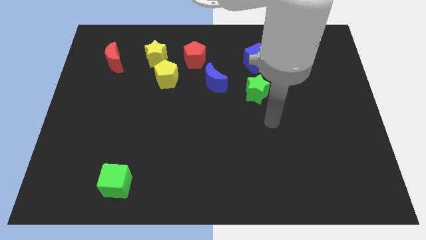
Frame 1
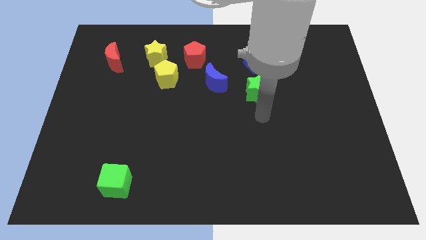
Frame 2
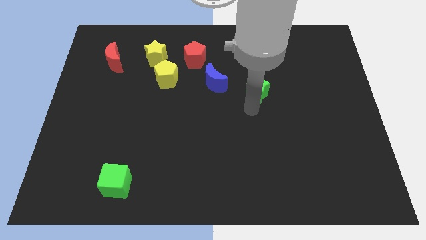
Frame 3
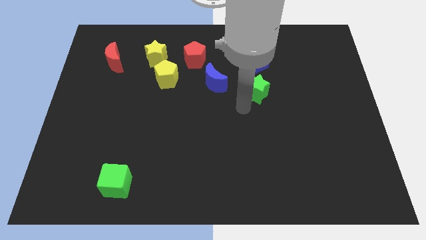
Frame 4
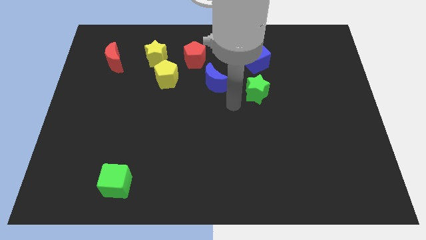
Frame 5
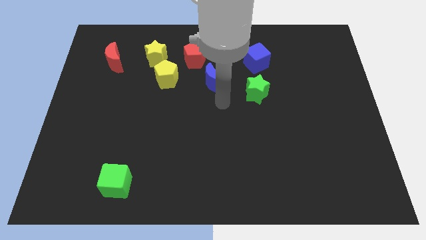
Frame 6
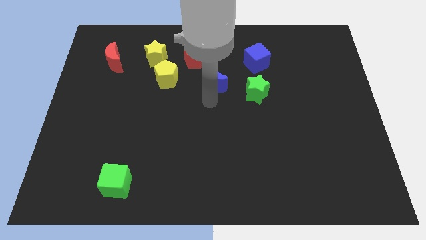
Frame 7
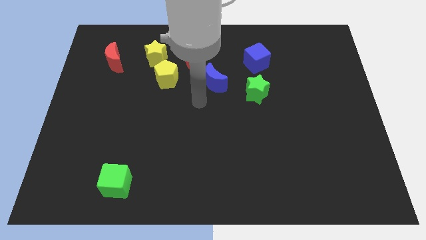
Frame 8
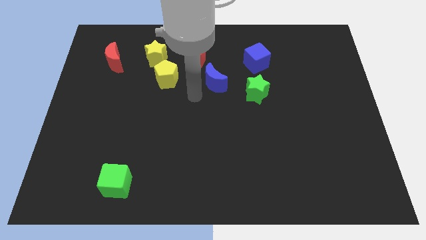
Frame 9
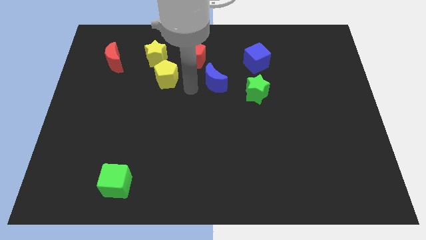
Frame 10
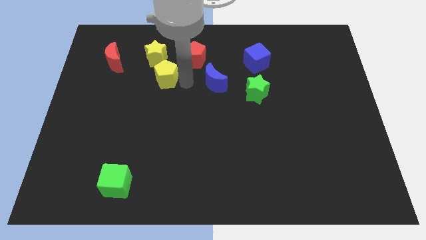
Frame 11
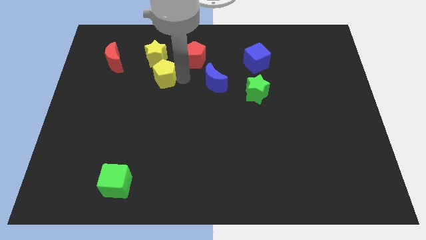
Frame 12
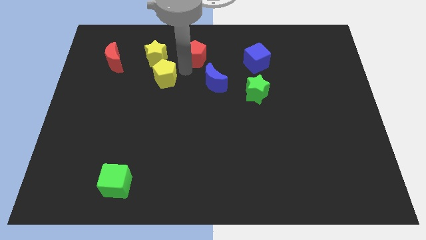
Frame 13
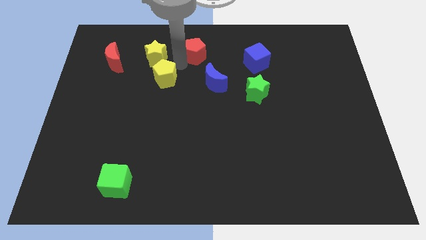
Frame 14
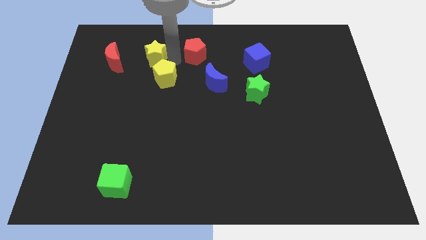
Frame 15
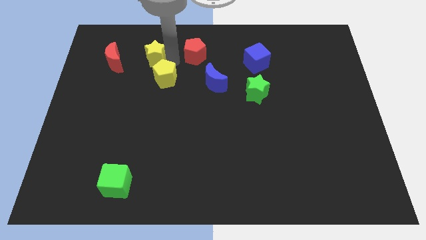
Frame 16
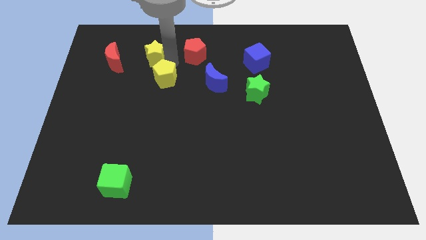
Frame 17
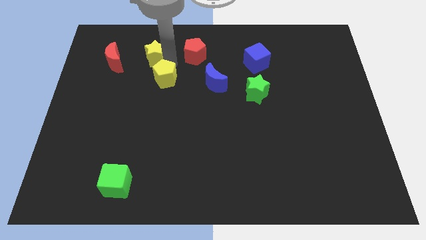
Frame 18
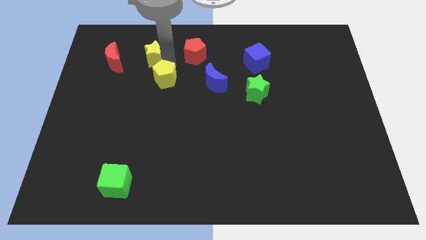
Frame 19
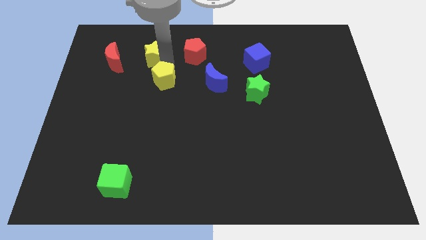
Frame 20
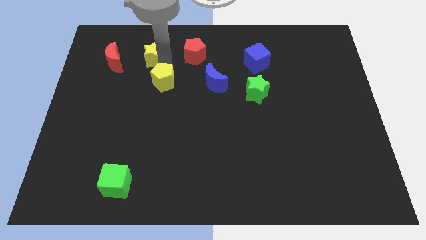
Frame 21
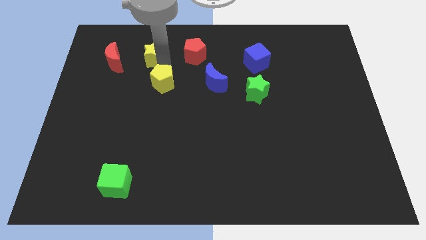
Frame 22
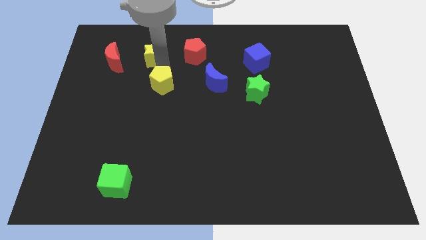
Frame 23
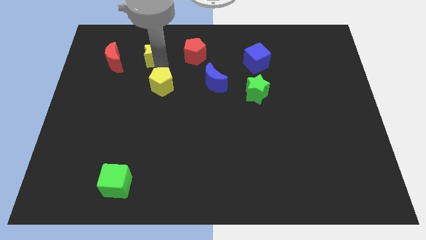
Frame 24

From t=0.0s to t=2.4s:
move the yellow pentagon away from the yellow star and red pentagon

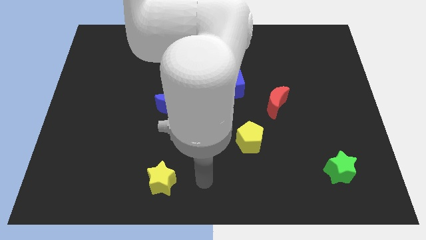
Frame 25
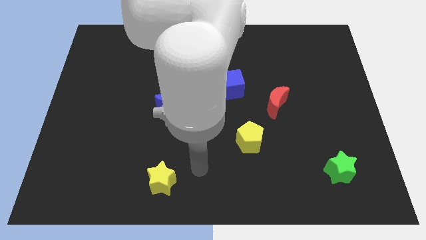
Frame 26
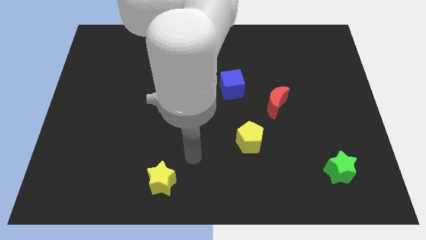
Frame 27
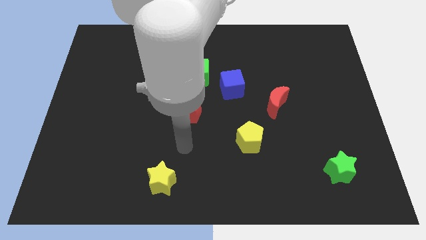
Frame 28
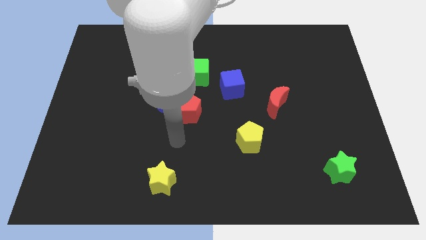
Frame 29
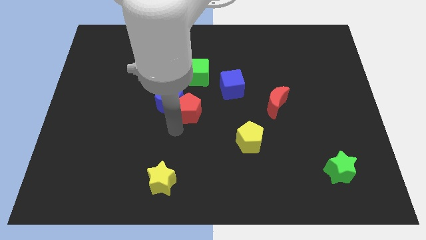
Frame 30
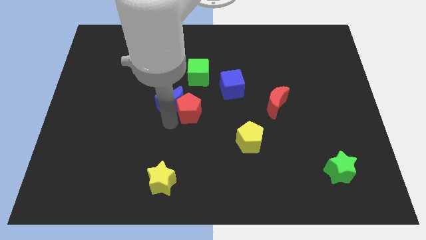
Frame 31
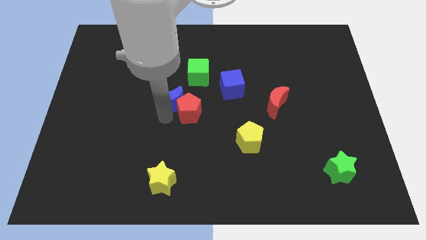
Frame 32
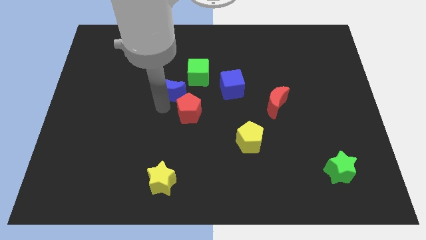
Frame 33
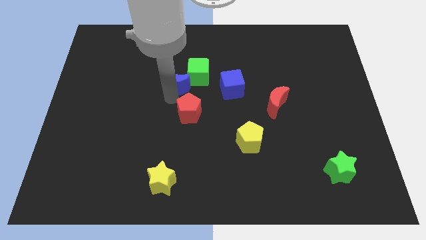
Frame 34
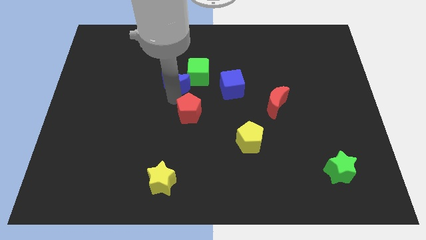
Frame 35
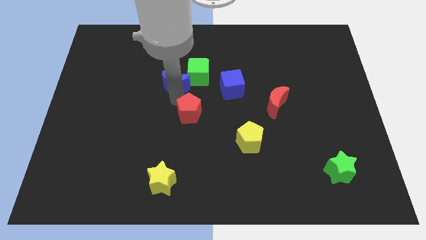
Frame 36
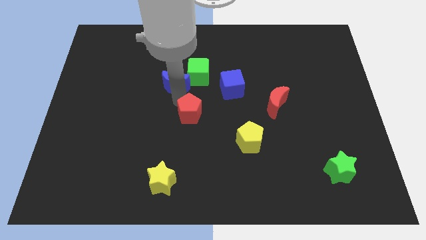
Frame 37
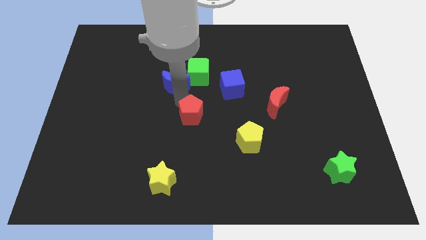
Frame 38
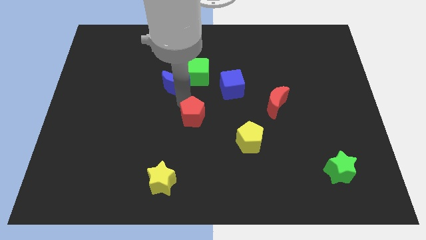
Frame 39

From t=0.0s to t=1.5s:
pull the red pentagon apart from the blue moon

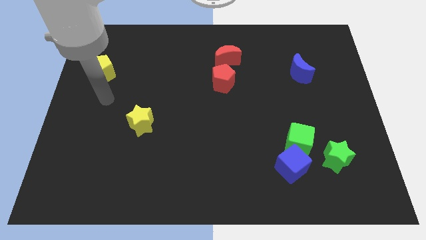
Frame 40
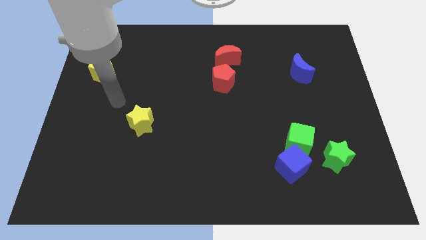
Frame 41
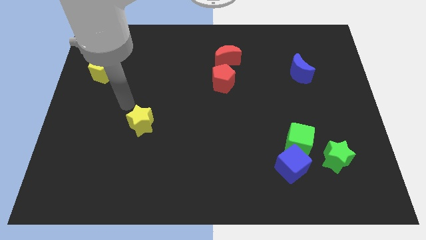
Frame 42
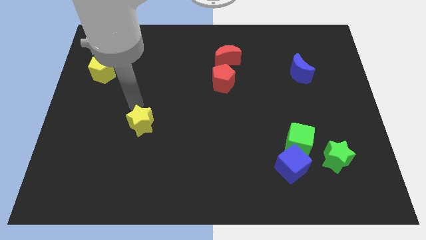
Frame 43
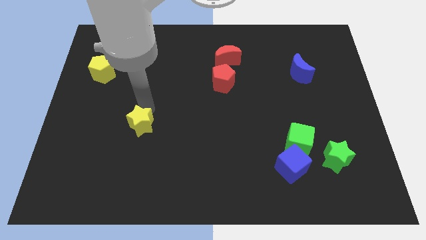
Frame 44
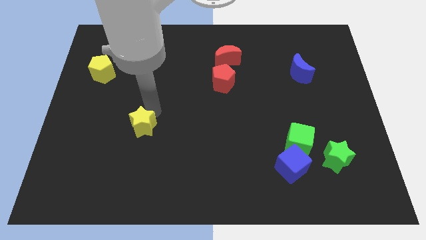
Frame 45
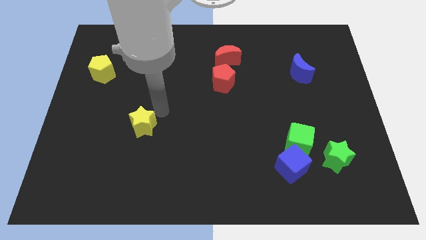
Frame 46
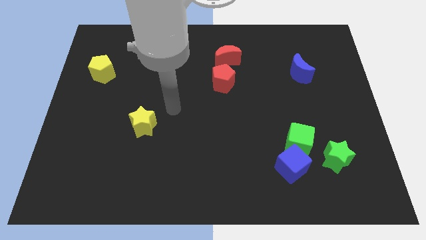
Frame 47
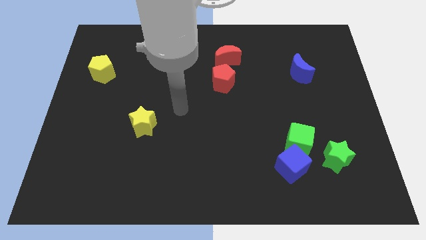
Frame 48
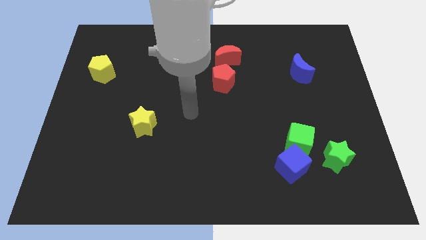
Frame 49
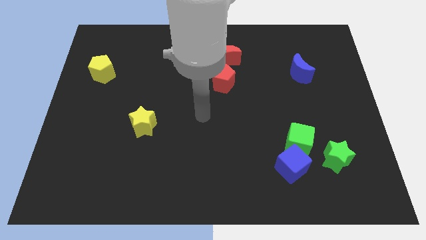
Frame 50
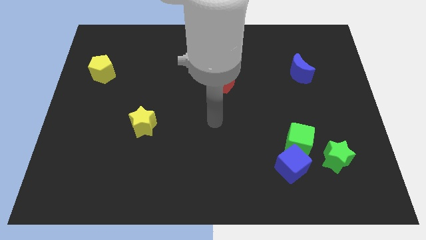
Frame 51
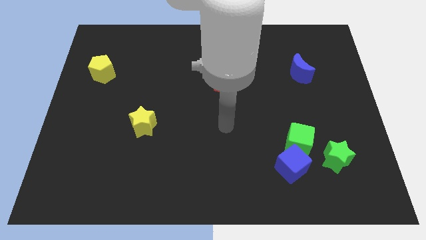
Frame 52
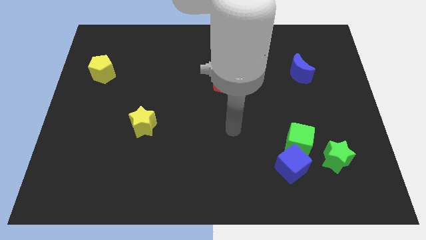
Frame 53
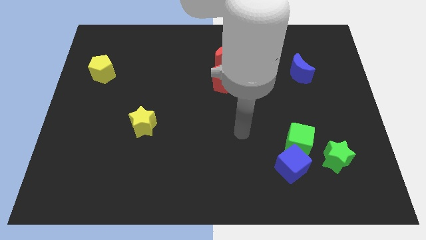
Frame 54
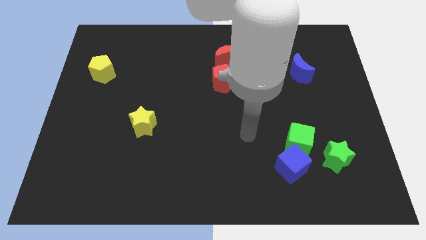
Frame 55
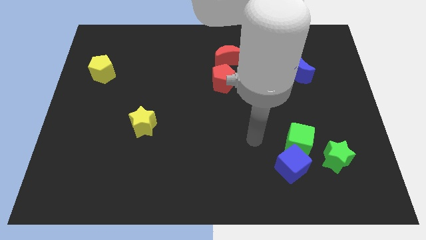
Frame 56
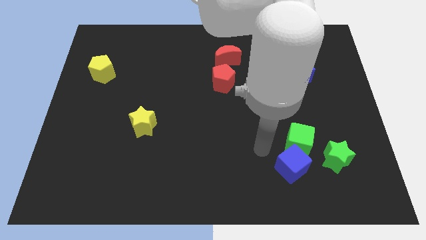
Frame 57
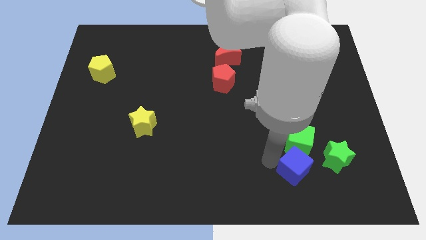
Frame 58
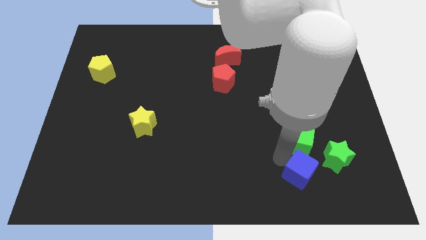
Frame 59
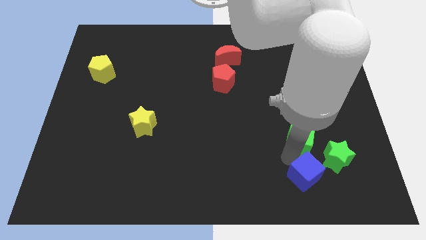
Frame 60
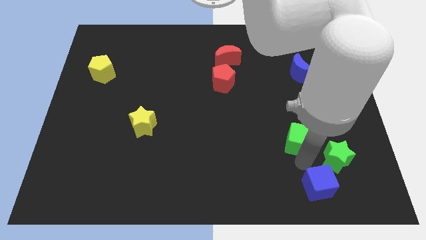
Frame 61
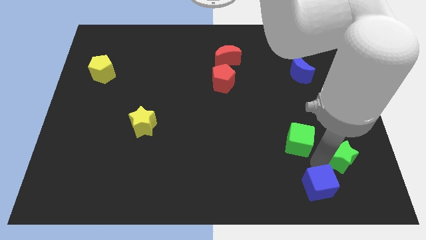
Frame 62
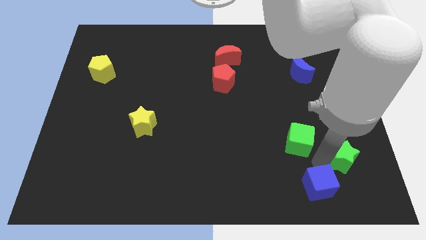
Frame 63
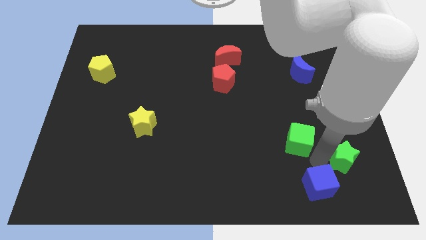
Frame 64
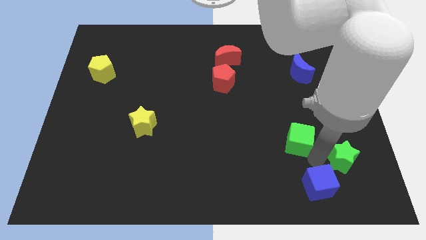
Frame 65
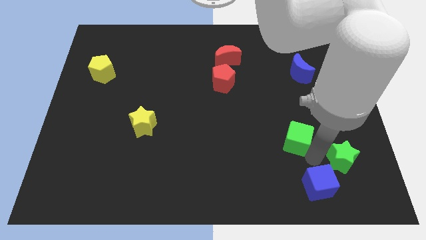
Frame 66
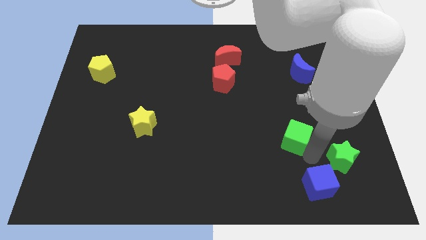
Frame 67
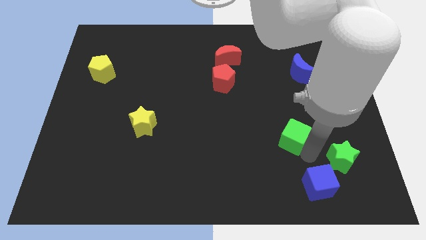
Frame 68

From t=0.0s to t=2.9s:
pull the green cube apart from the blue cube and green star

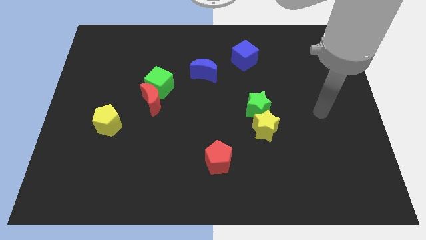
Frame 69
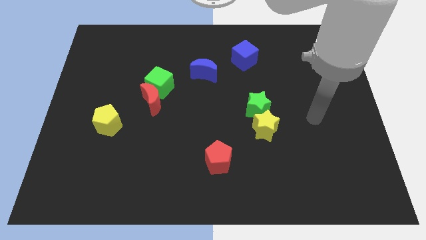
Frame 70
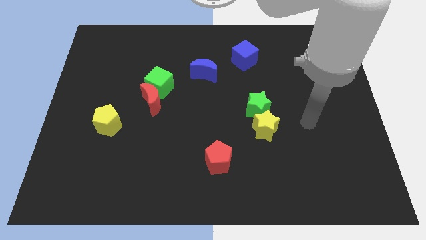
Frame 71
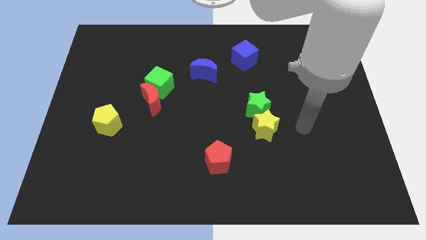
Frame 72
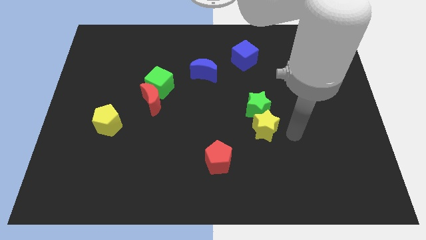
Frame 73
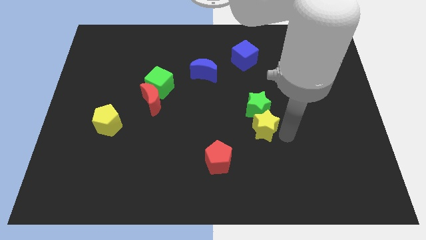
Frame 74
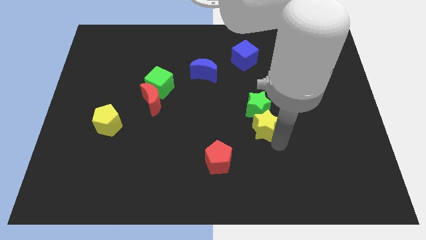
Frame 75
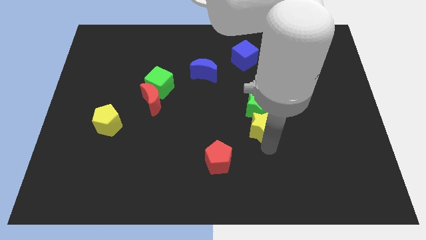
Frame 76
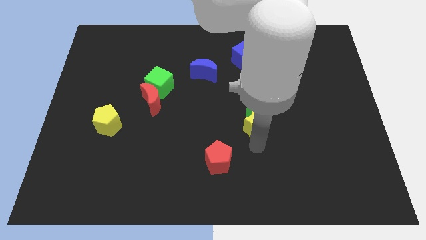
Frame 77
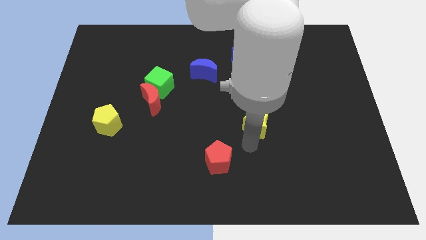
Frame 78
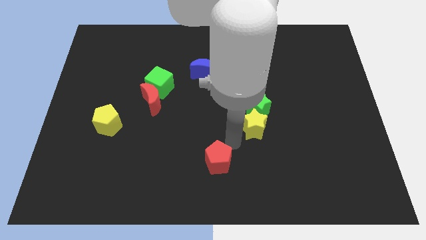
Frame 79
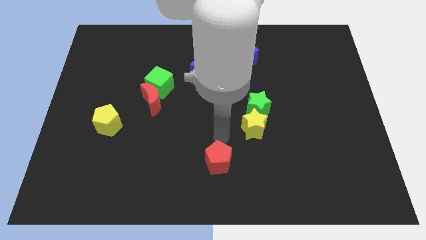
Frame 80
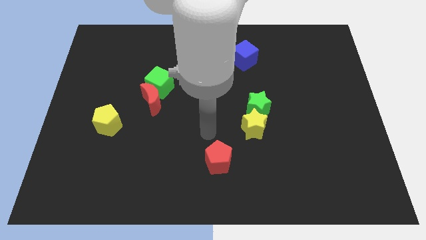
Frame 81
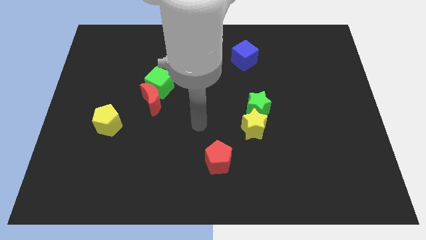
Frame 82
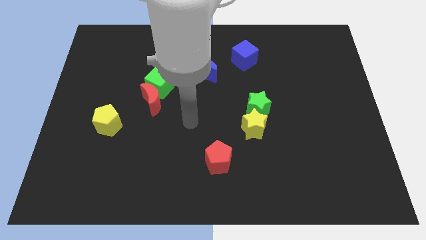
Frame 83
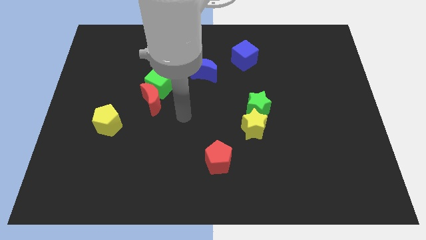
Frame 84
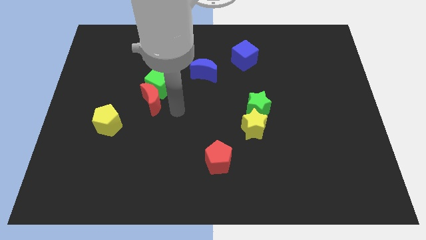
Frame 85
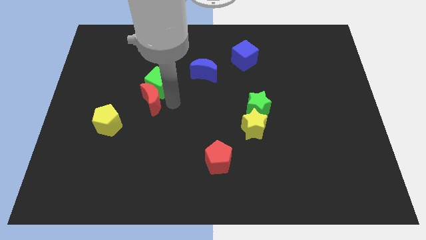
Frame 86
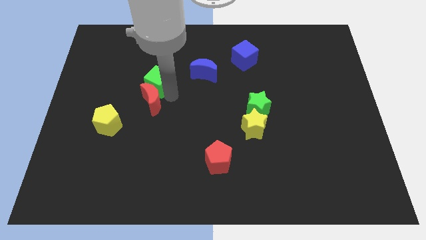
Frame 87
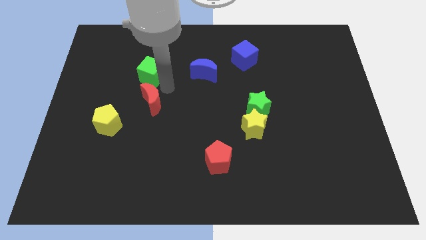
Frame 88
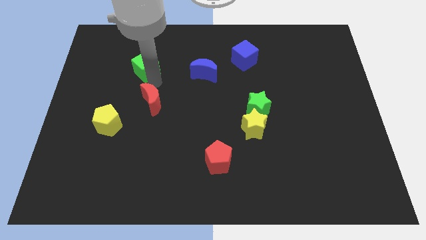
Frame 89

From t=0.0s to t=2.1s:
pull the red moon apart from the green cube

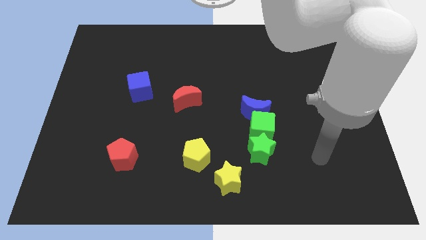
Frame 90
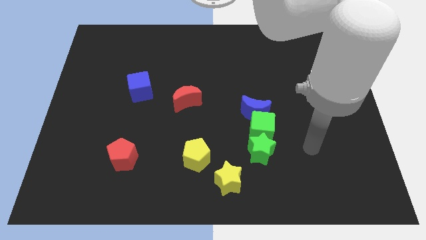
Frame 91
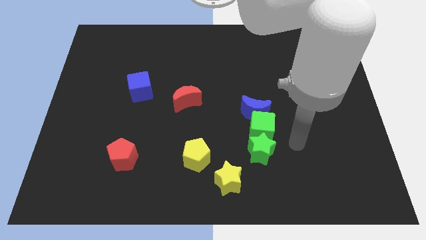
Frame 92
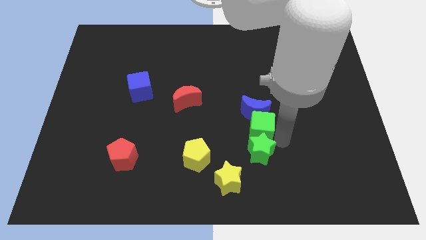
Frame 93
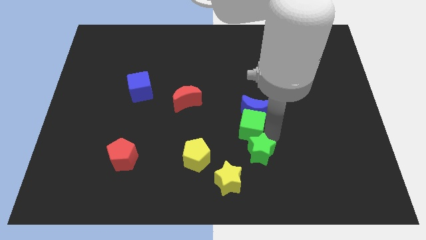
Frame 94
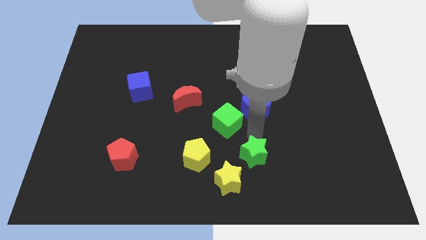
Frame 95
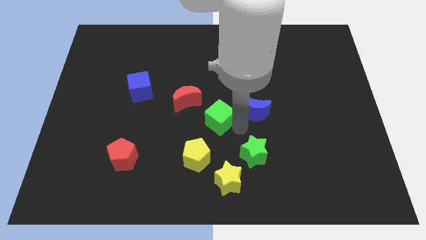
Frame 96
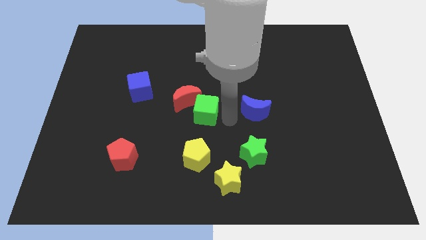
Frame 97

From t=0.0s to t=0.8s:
move the blue moon away from the green cube
